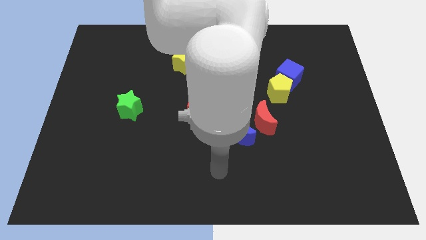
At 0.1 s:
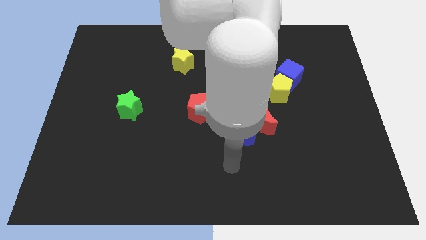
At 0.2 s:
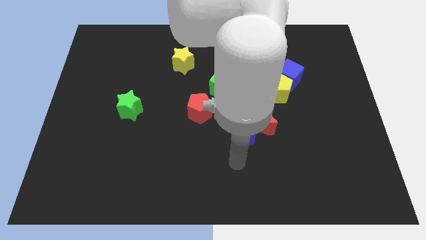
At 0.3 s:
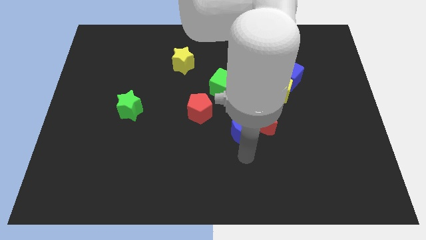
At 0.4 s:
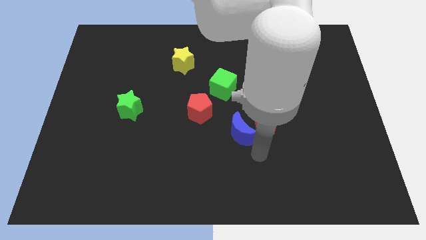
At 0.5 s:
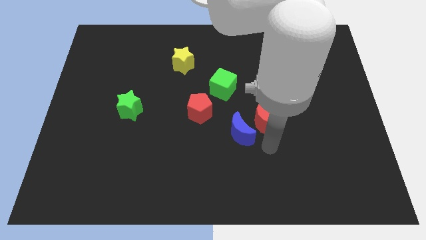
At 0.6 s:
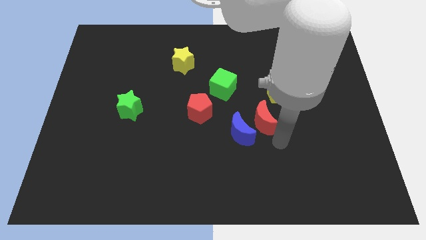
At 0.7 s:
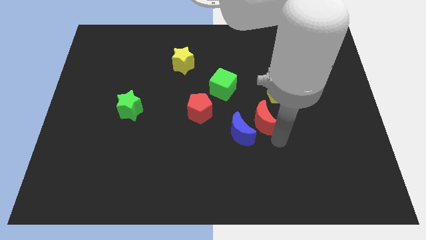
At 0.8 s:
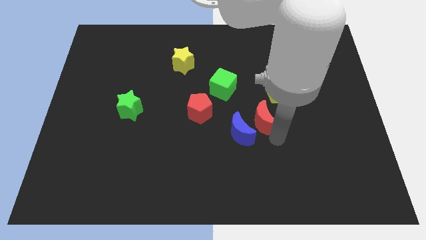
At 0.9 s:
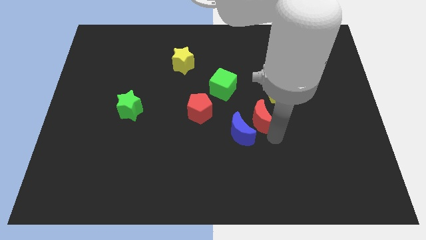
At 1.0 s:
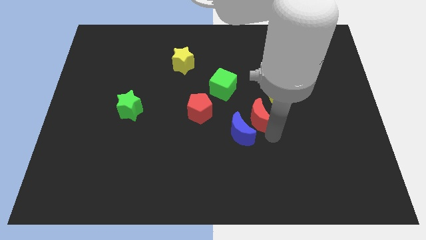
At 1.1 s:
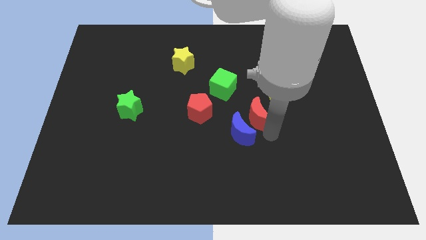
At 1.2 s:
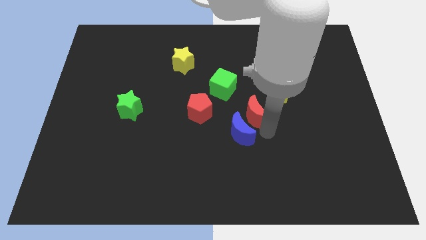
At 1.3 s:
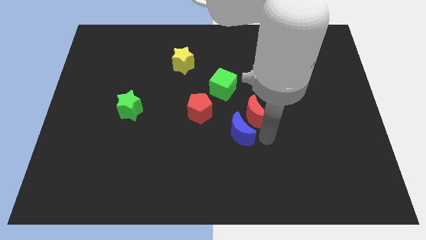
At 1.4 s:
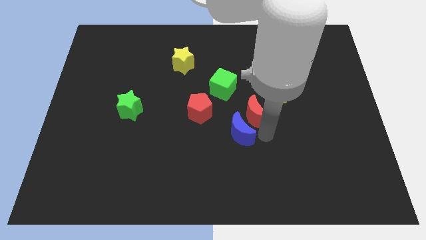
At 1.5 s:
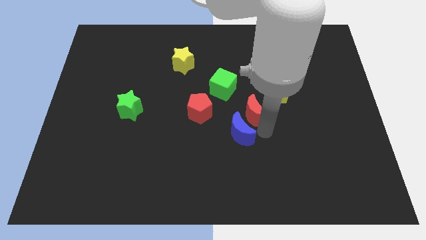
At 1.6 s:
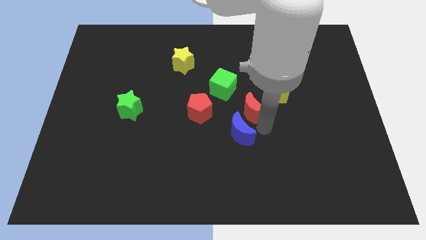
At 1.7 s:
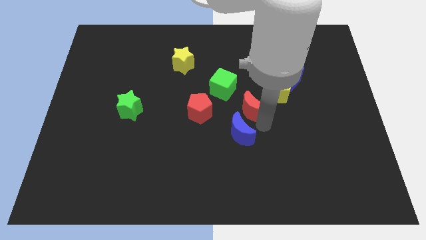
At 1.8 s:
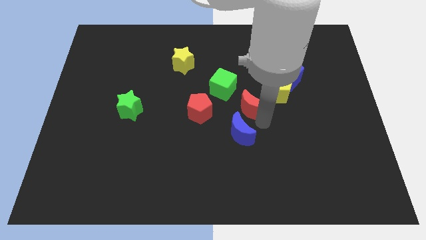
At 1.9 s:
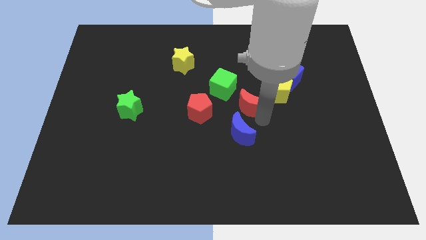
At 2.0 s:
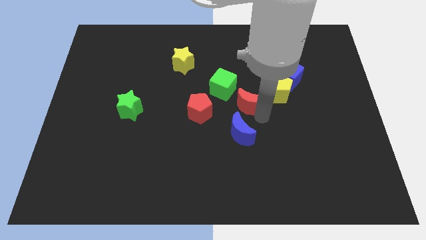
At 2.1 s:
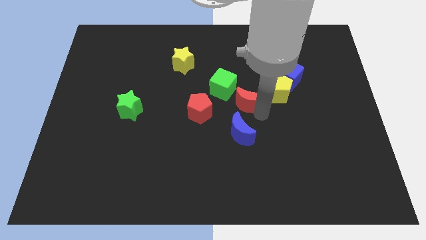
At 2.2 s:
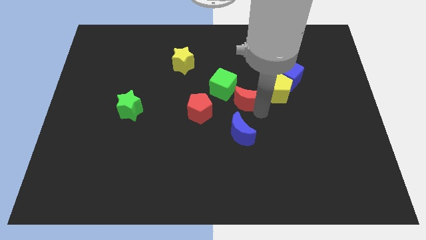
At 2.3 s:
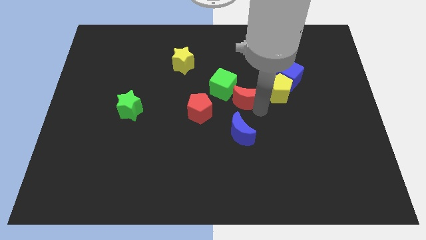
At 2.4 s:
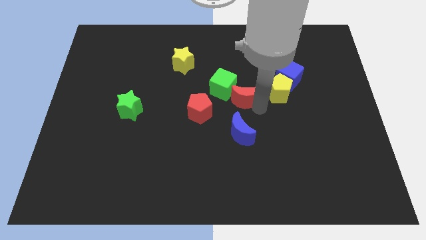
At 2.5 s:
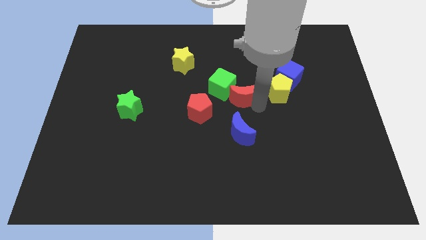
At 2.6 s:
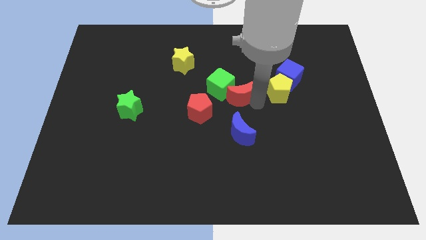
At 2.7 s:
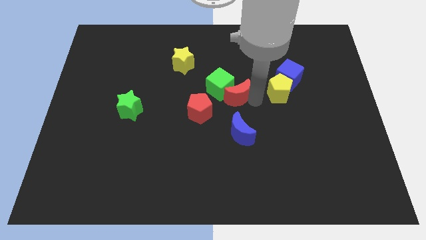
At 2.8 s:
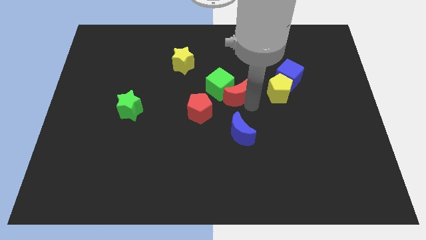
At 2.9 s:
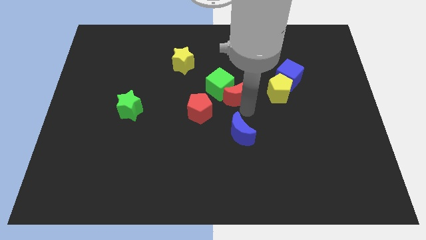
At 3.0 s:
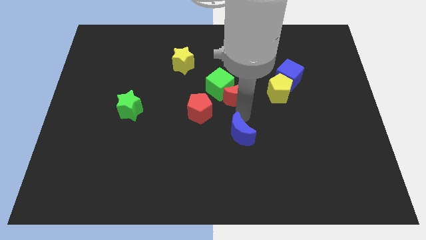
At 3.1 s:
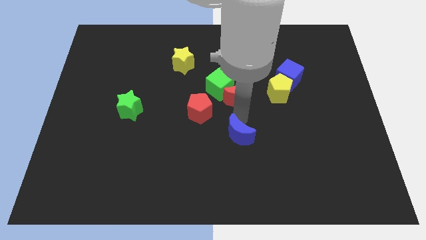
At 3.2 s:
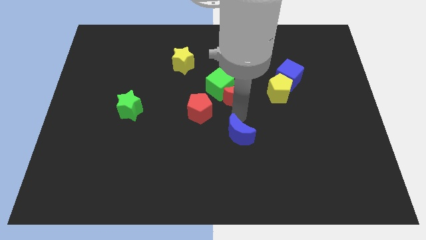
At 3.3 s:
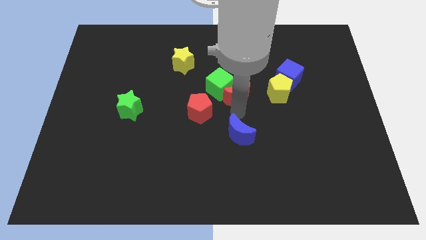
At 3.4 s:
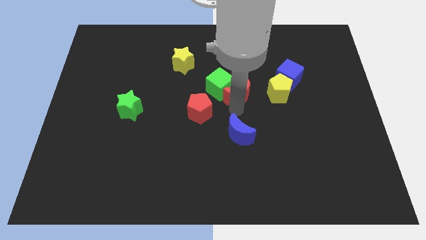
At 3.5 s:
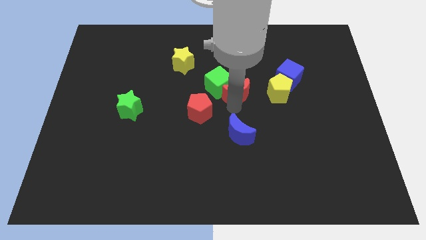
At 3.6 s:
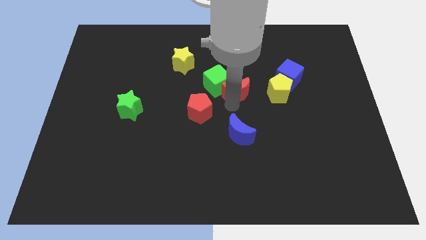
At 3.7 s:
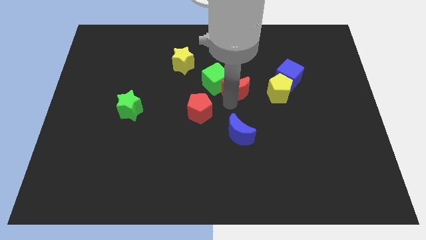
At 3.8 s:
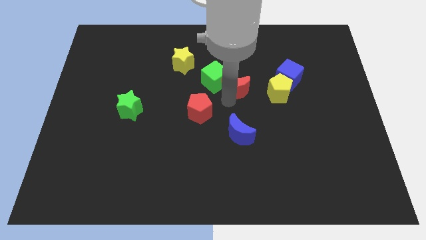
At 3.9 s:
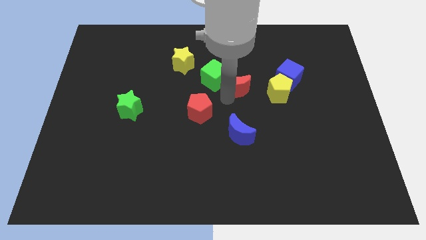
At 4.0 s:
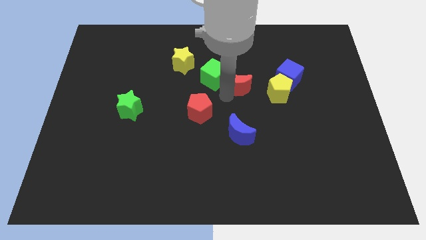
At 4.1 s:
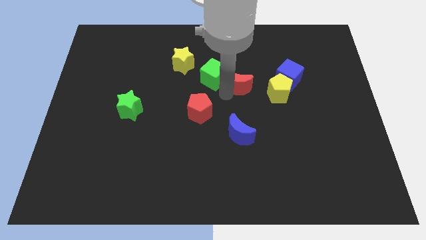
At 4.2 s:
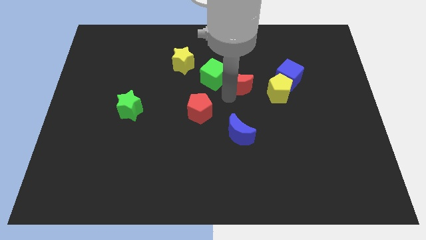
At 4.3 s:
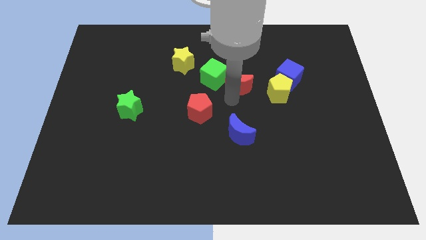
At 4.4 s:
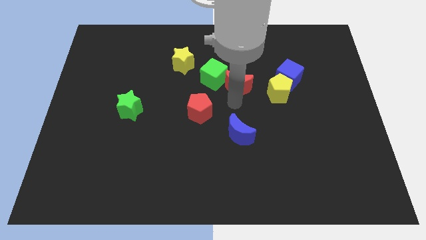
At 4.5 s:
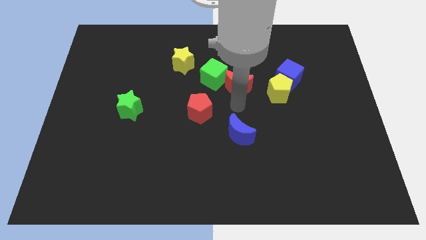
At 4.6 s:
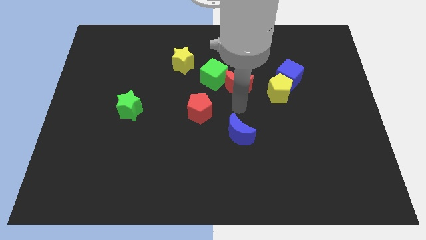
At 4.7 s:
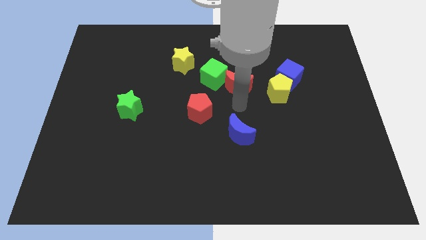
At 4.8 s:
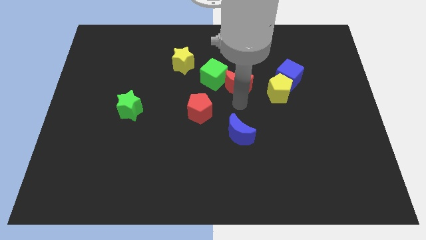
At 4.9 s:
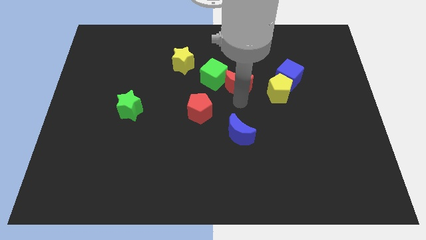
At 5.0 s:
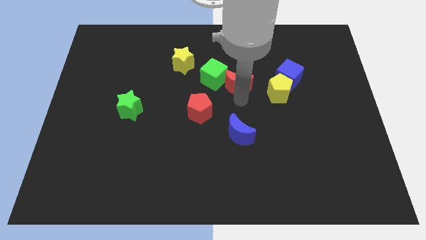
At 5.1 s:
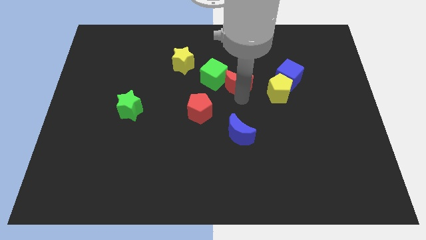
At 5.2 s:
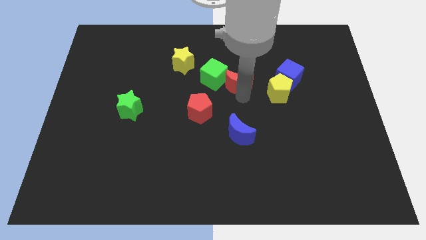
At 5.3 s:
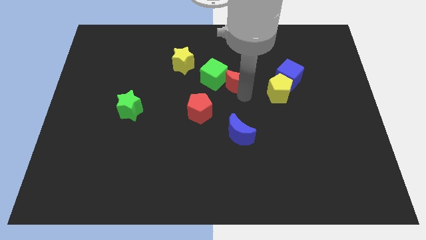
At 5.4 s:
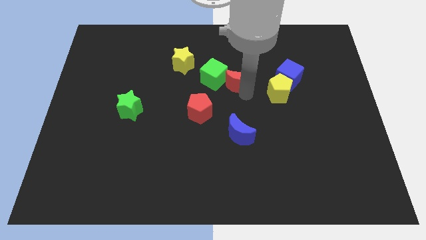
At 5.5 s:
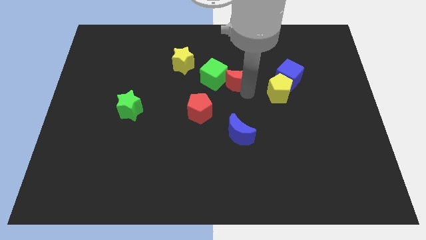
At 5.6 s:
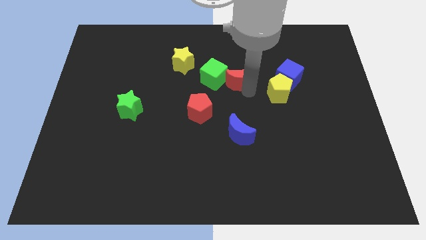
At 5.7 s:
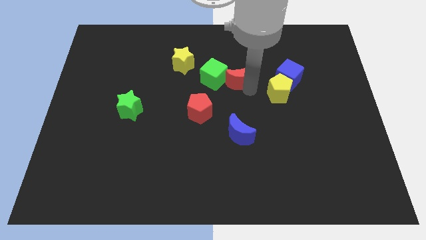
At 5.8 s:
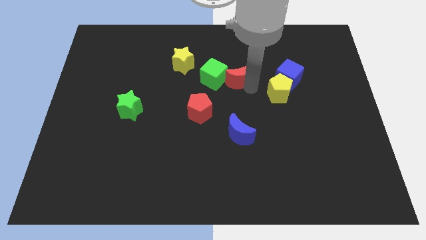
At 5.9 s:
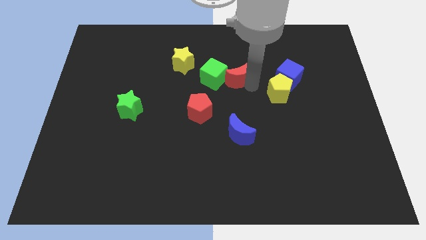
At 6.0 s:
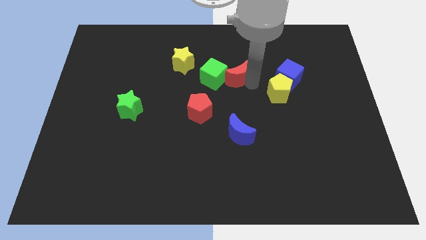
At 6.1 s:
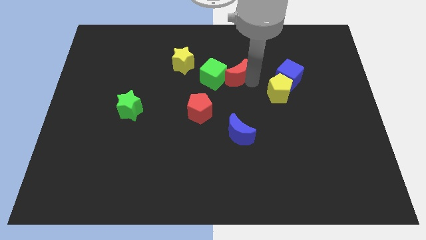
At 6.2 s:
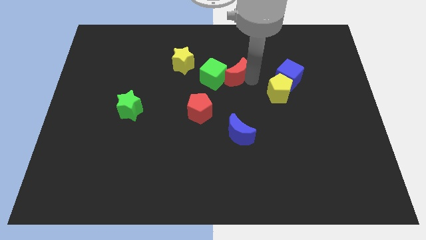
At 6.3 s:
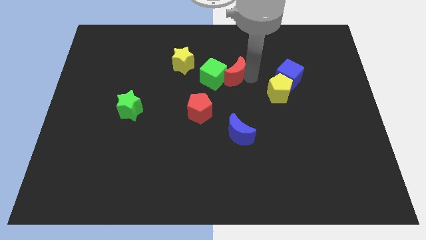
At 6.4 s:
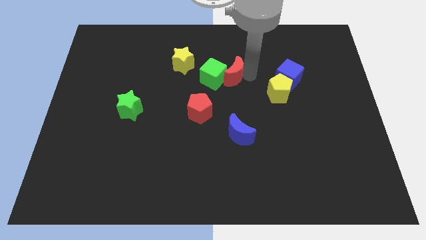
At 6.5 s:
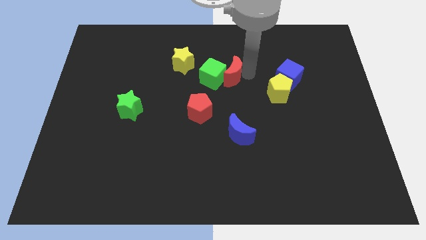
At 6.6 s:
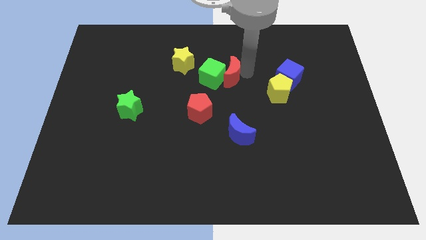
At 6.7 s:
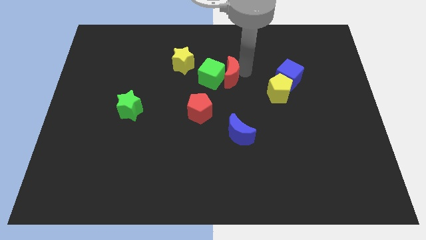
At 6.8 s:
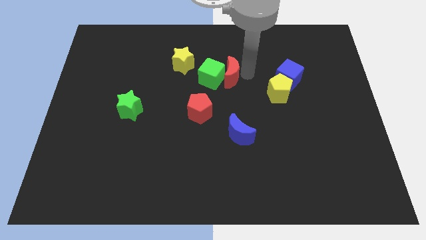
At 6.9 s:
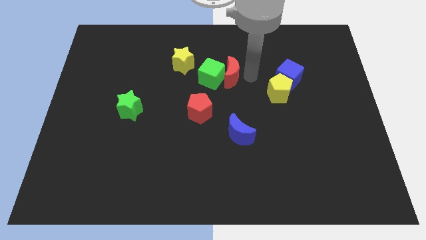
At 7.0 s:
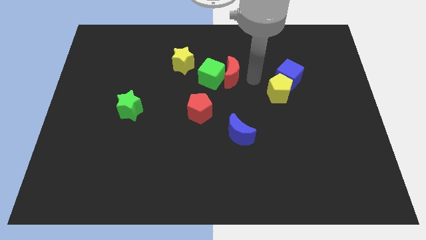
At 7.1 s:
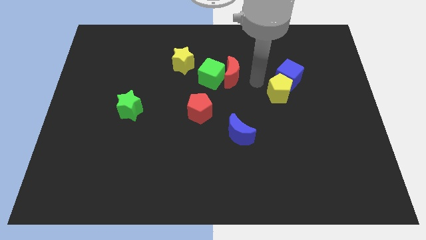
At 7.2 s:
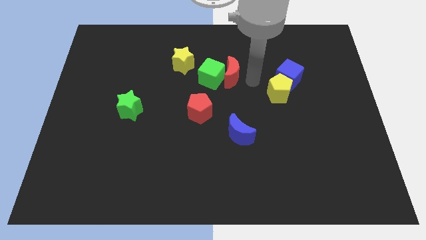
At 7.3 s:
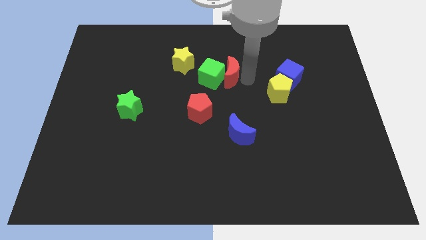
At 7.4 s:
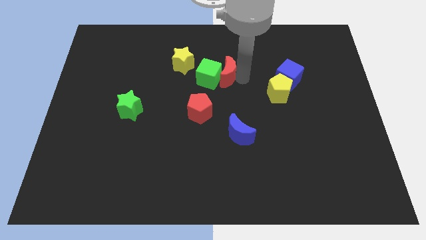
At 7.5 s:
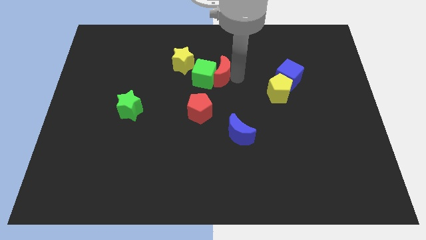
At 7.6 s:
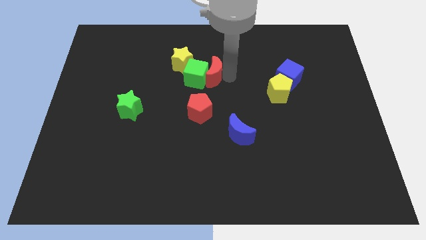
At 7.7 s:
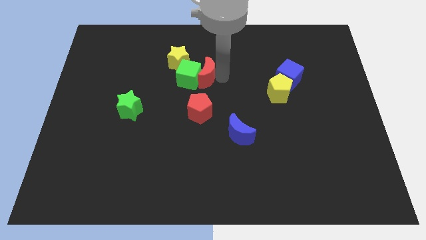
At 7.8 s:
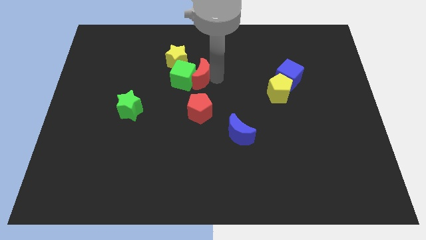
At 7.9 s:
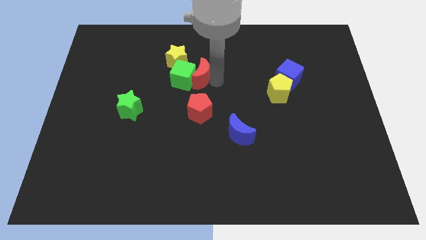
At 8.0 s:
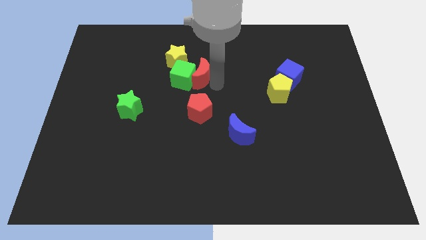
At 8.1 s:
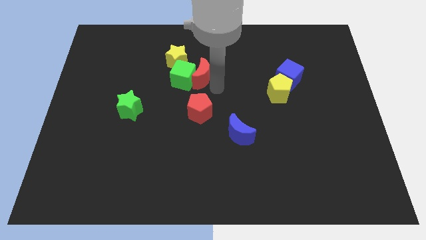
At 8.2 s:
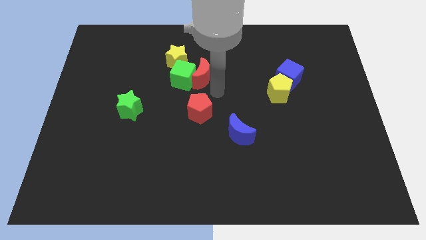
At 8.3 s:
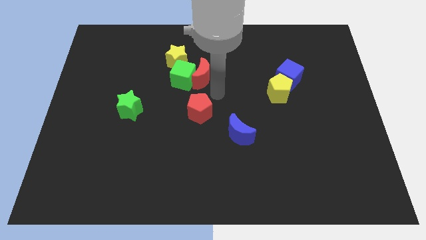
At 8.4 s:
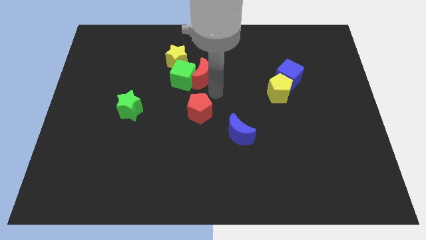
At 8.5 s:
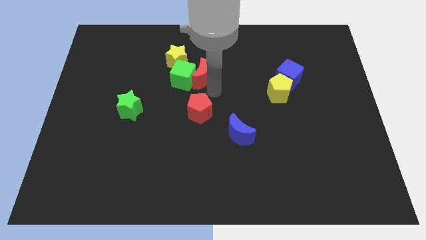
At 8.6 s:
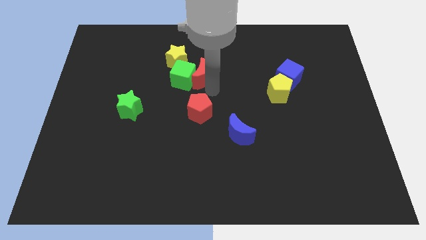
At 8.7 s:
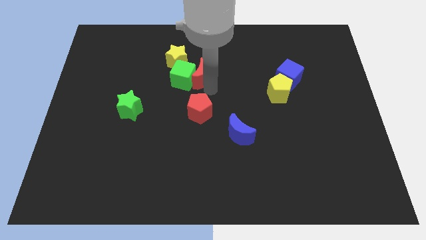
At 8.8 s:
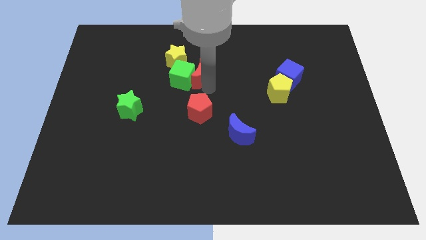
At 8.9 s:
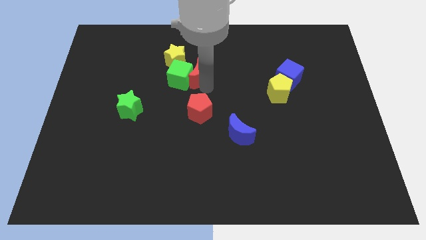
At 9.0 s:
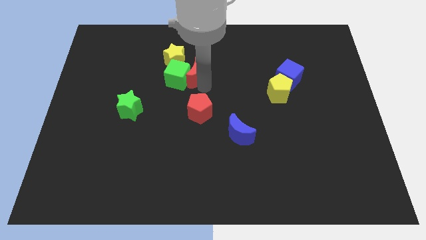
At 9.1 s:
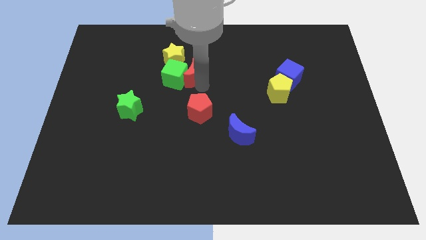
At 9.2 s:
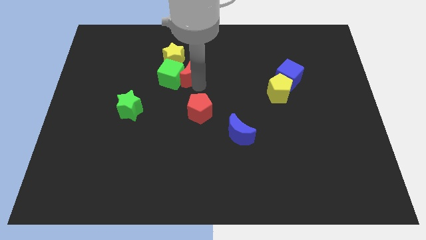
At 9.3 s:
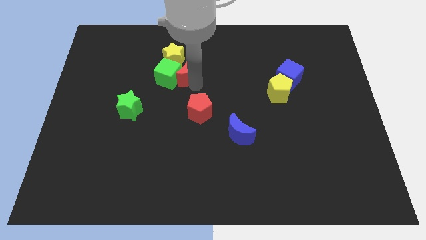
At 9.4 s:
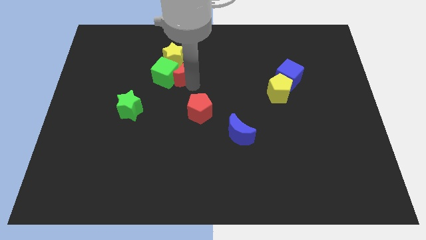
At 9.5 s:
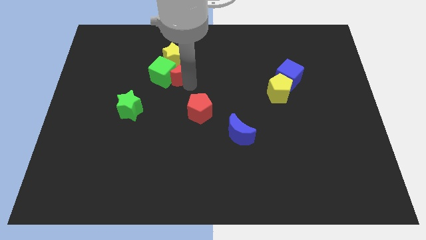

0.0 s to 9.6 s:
push the red moon to the yellow star
